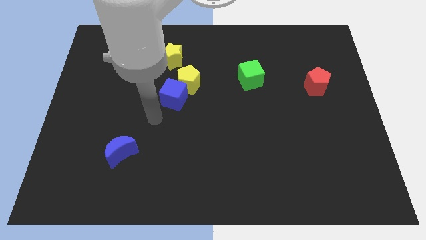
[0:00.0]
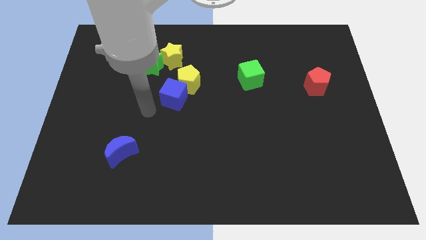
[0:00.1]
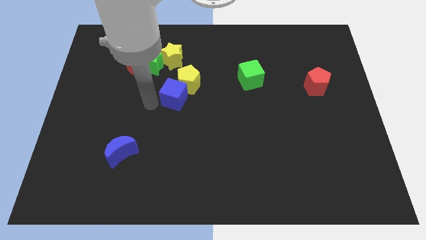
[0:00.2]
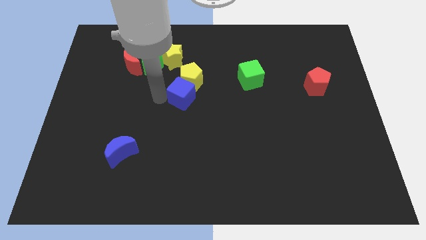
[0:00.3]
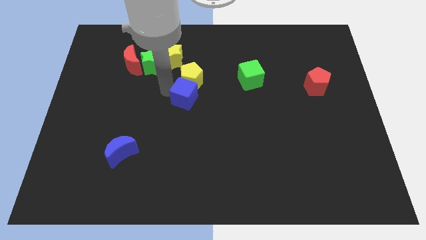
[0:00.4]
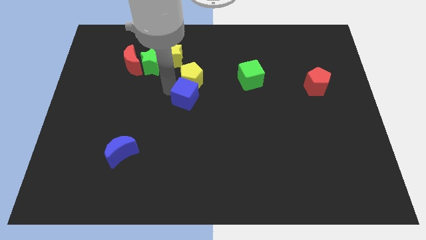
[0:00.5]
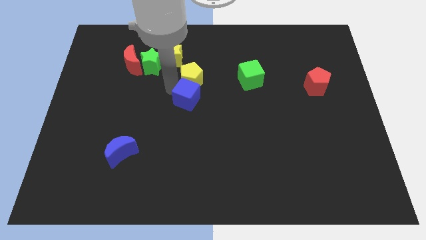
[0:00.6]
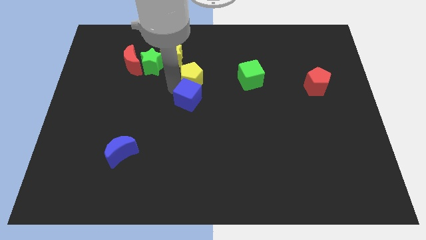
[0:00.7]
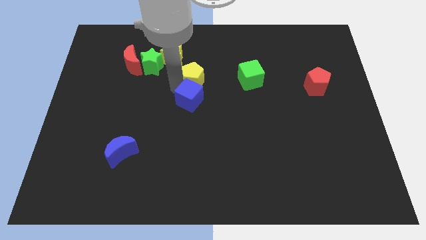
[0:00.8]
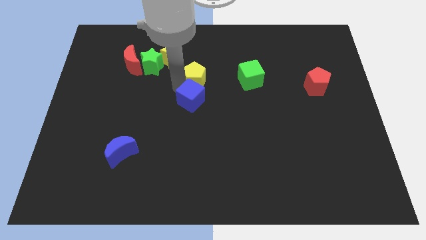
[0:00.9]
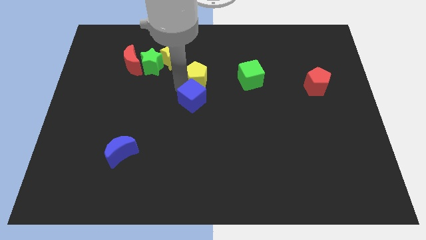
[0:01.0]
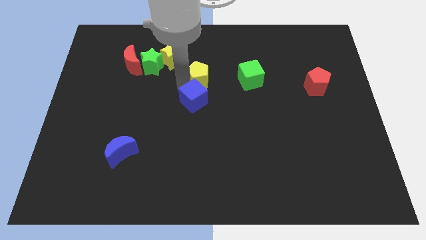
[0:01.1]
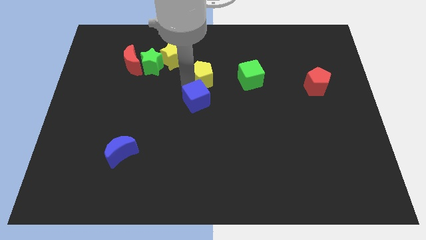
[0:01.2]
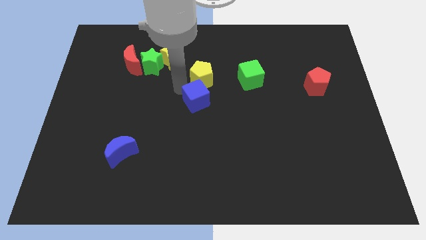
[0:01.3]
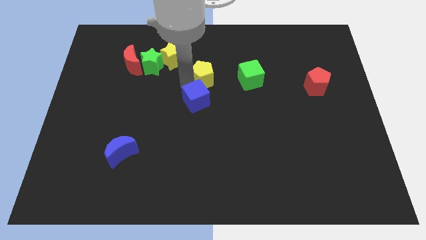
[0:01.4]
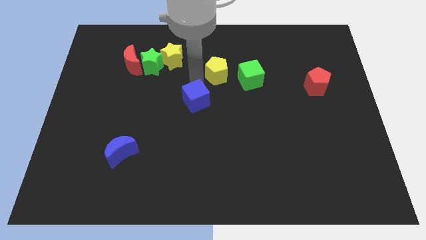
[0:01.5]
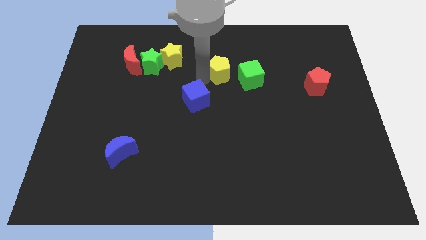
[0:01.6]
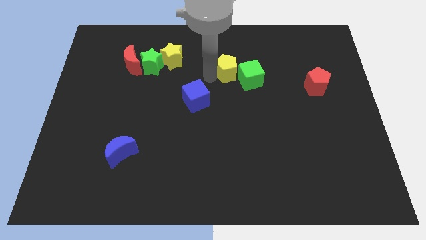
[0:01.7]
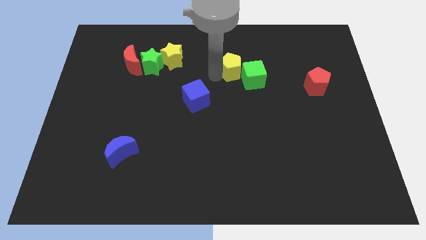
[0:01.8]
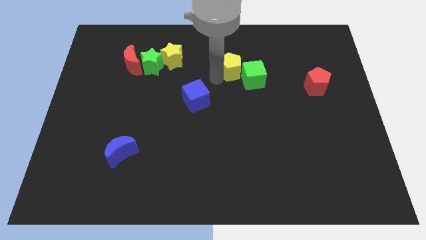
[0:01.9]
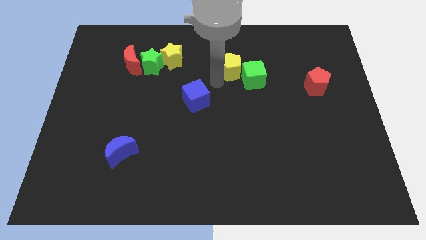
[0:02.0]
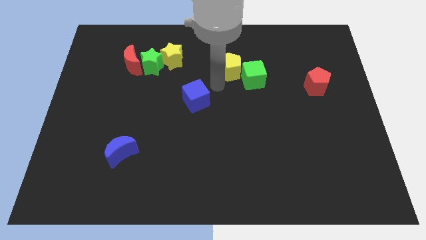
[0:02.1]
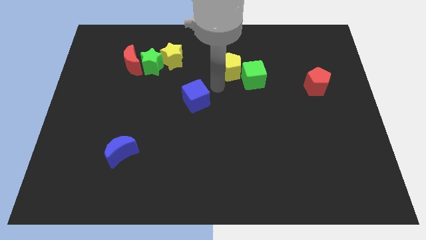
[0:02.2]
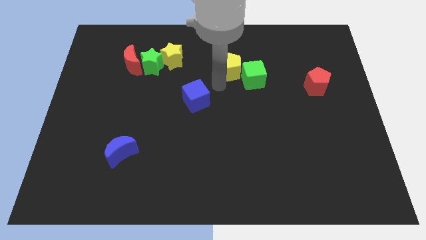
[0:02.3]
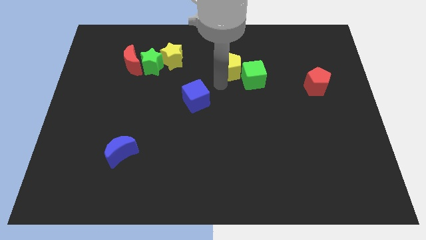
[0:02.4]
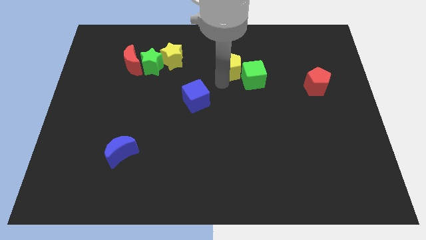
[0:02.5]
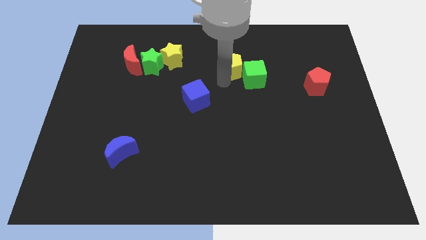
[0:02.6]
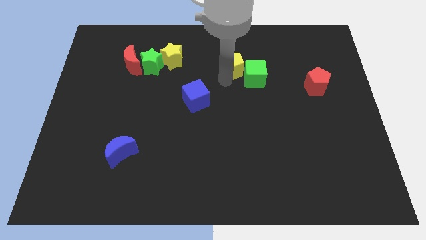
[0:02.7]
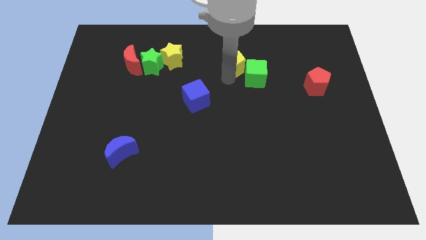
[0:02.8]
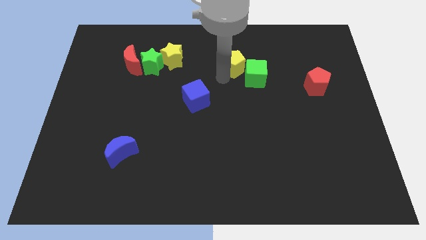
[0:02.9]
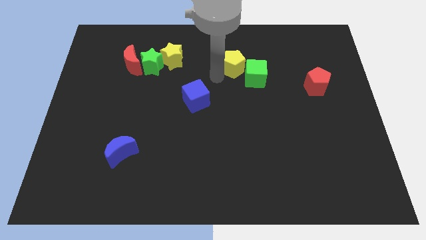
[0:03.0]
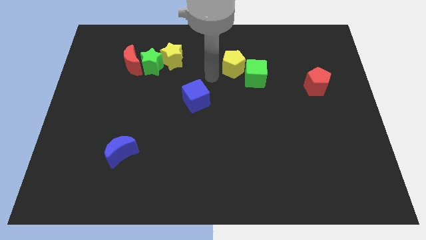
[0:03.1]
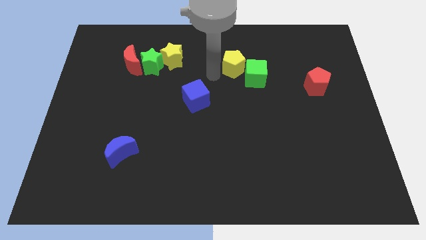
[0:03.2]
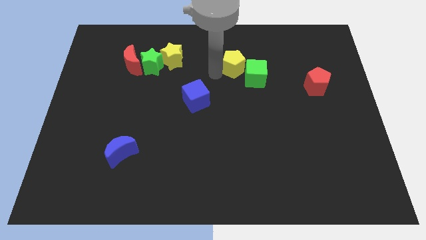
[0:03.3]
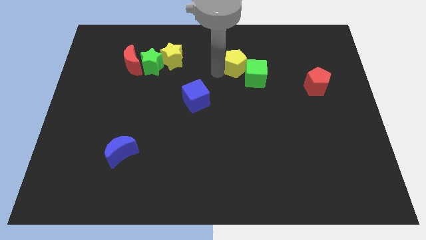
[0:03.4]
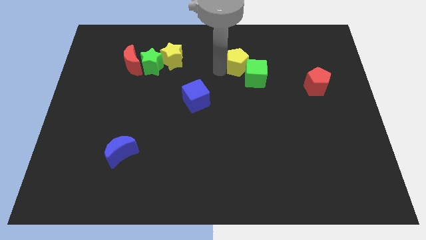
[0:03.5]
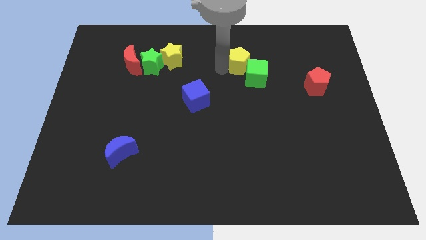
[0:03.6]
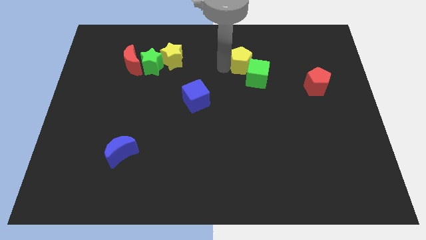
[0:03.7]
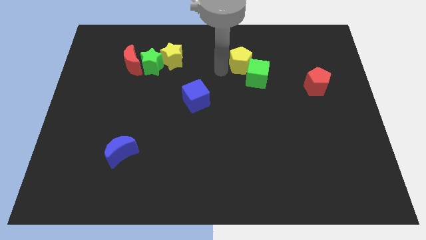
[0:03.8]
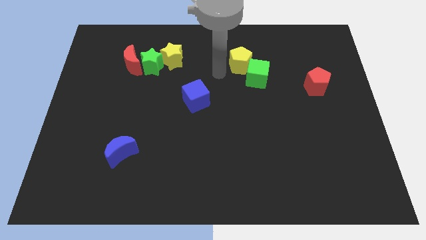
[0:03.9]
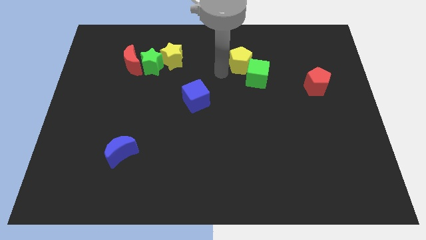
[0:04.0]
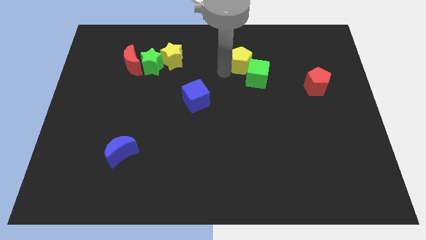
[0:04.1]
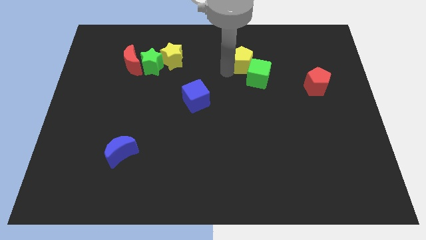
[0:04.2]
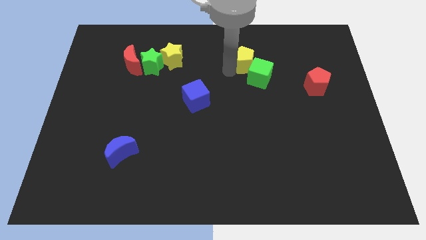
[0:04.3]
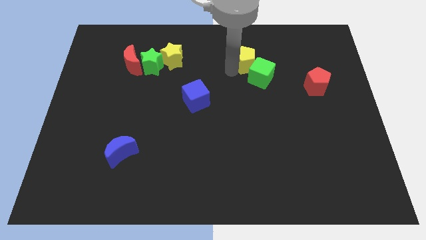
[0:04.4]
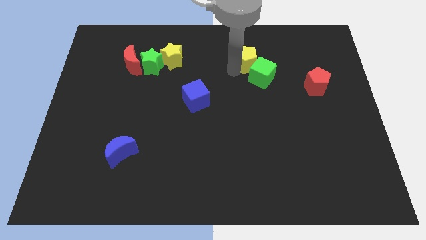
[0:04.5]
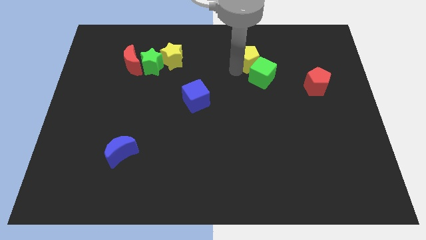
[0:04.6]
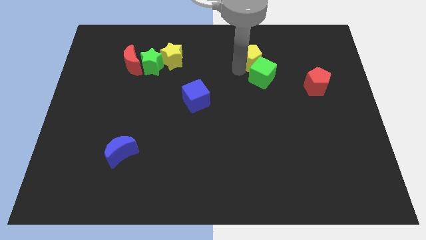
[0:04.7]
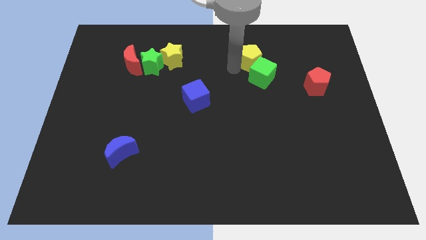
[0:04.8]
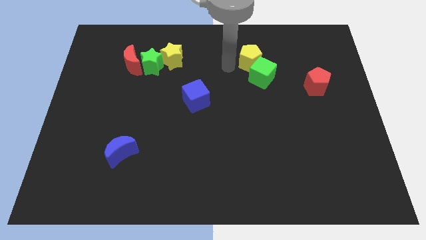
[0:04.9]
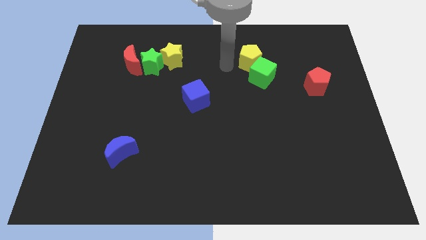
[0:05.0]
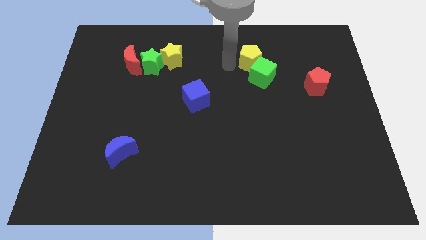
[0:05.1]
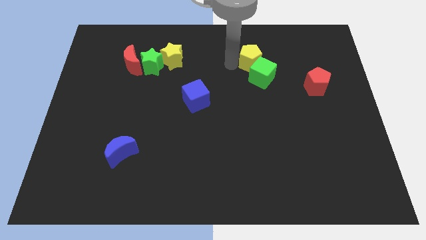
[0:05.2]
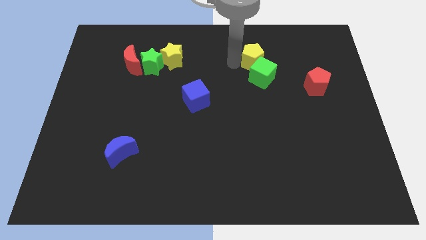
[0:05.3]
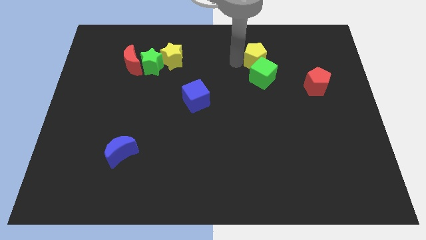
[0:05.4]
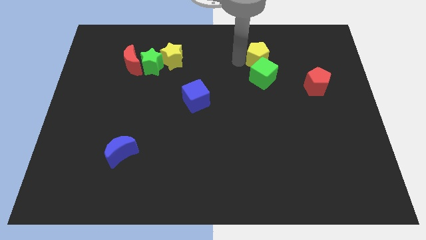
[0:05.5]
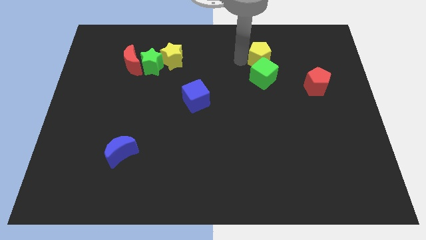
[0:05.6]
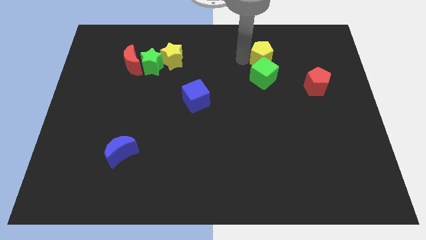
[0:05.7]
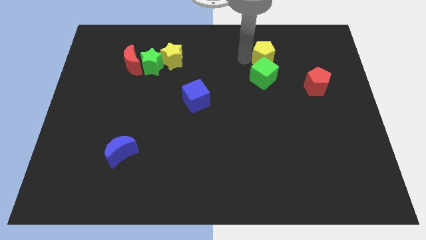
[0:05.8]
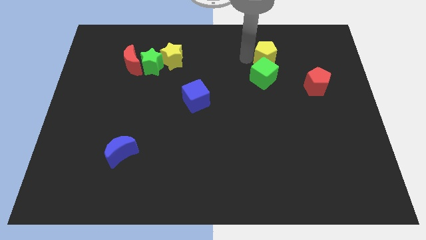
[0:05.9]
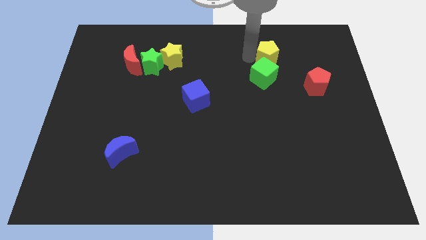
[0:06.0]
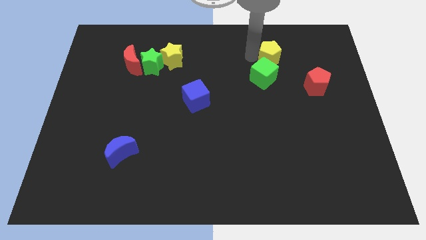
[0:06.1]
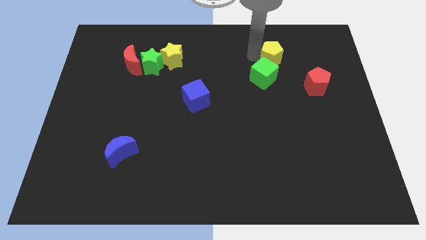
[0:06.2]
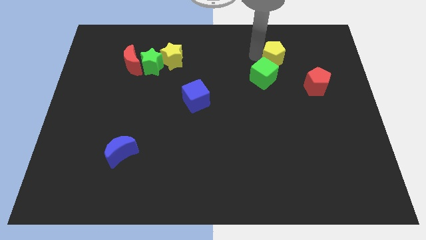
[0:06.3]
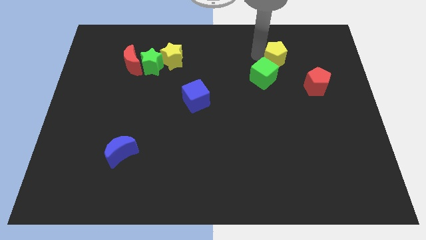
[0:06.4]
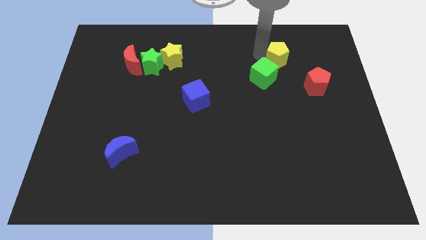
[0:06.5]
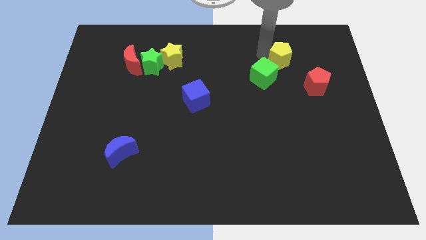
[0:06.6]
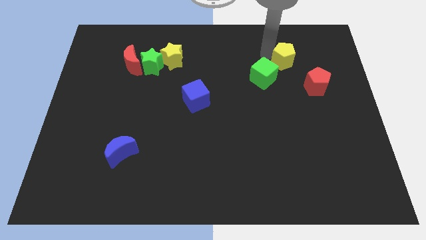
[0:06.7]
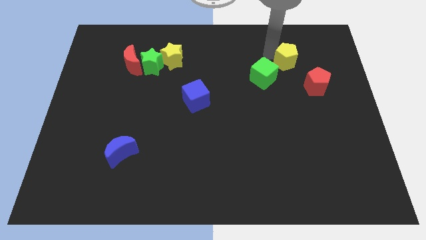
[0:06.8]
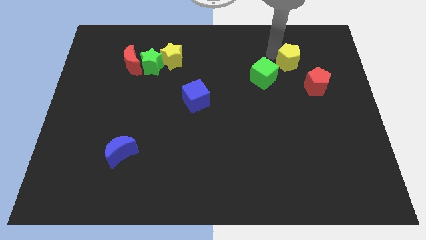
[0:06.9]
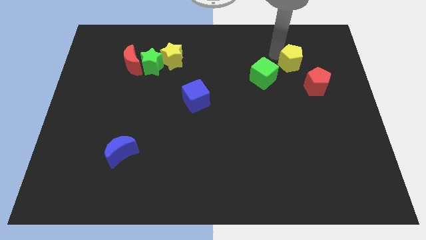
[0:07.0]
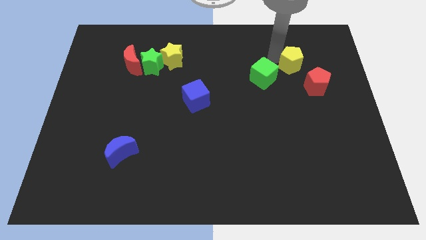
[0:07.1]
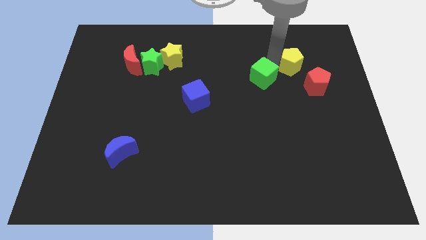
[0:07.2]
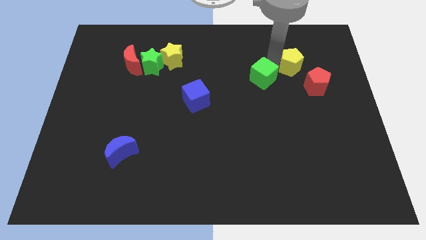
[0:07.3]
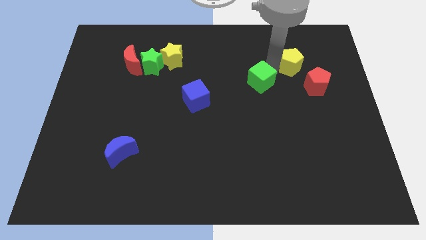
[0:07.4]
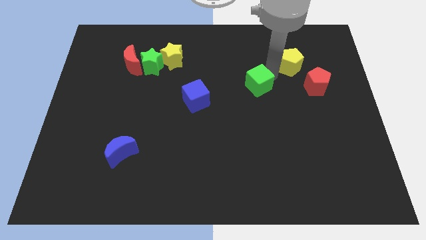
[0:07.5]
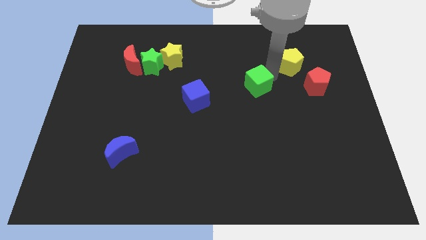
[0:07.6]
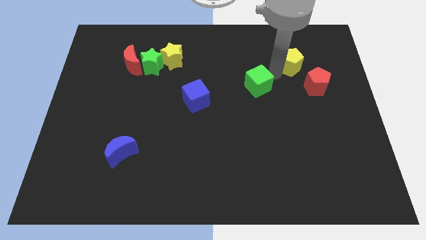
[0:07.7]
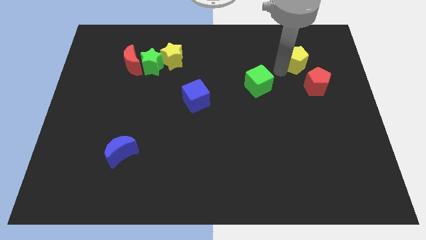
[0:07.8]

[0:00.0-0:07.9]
put the yellow pentagon above the red pentagon
